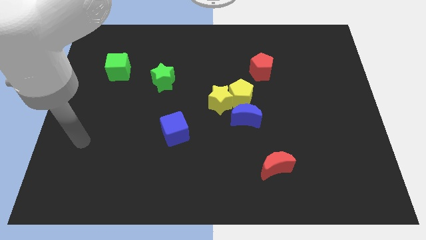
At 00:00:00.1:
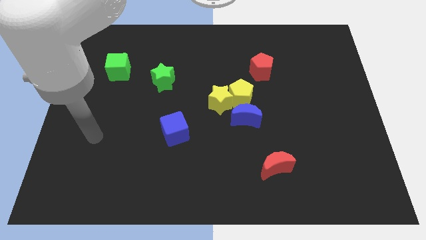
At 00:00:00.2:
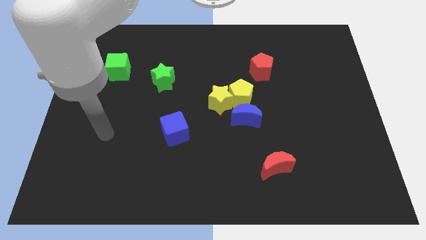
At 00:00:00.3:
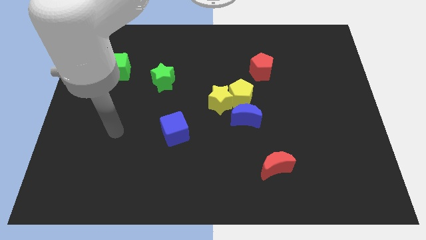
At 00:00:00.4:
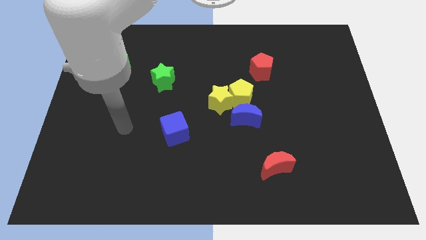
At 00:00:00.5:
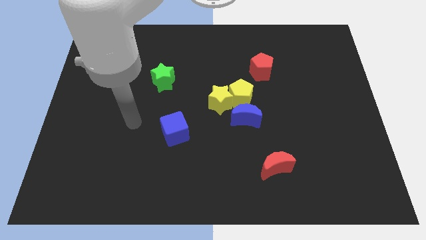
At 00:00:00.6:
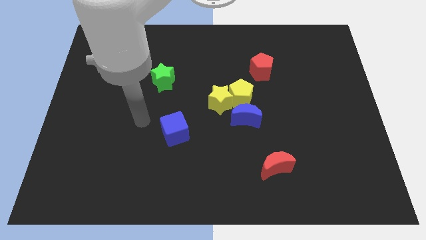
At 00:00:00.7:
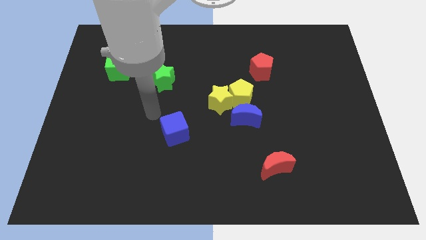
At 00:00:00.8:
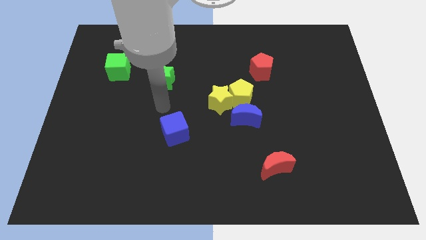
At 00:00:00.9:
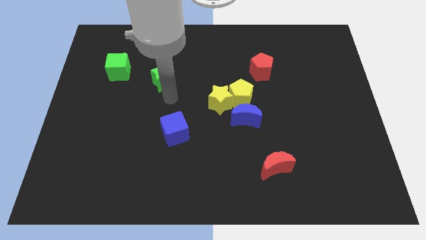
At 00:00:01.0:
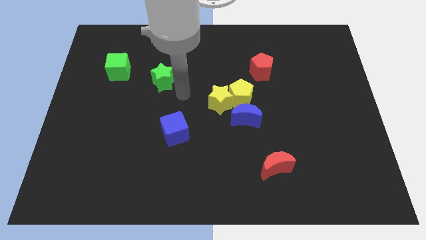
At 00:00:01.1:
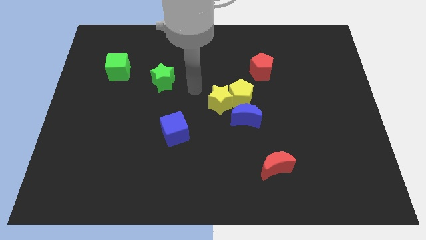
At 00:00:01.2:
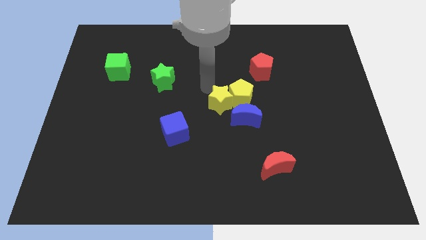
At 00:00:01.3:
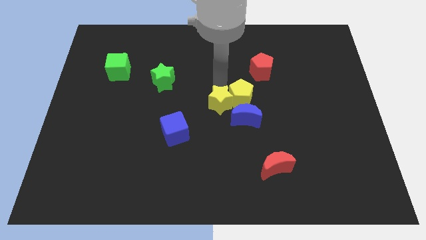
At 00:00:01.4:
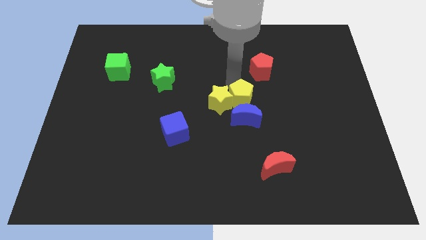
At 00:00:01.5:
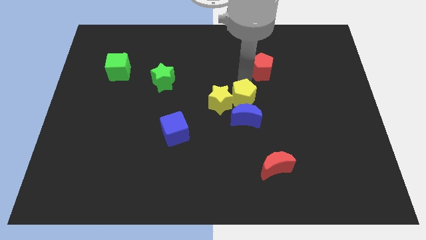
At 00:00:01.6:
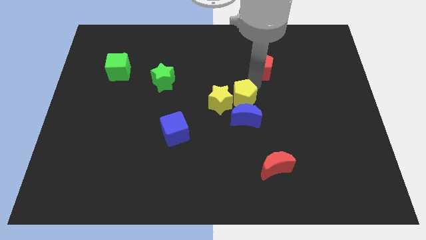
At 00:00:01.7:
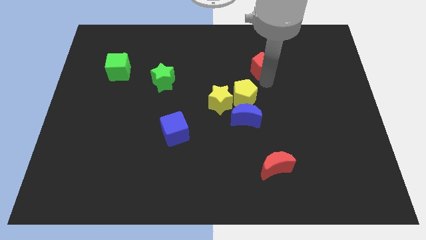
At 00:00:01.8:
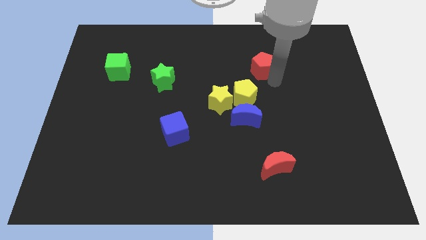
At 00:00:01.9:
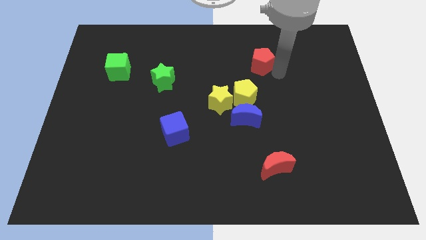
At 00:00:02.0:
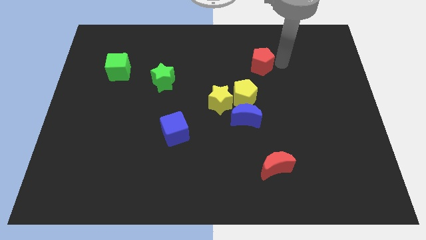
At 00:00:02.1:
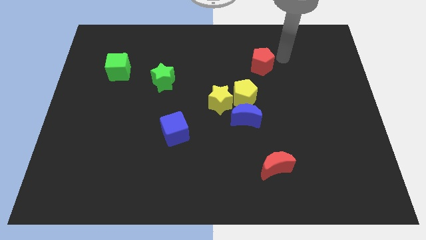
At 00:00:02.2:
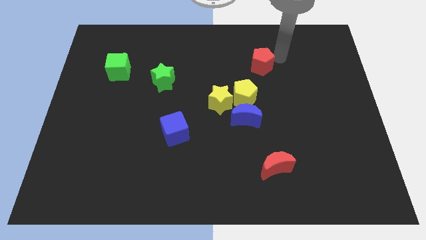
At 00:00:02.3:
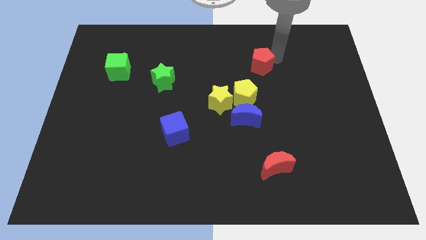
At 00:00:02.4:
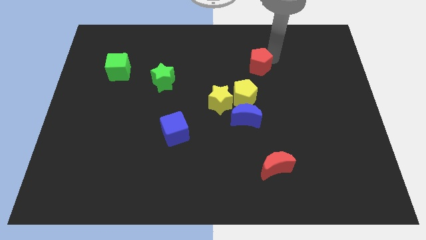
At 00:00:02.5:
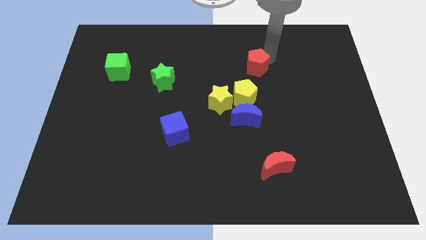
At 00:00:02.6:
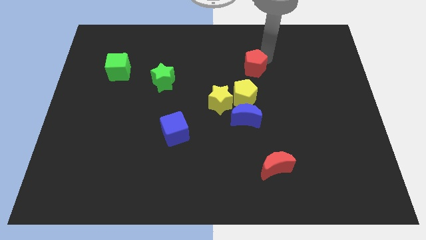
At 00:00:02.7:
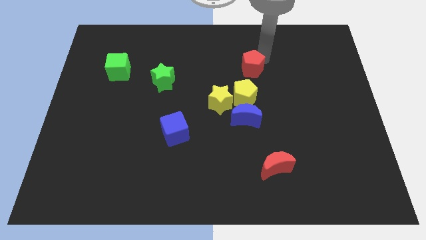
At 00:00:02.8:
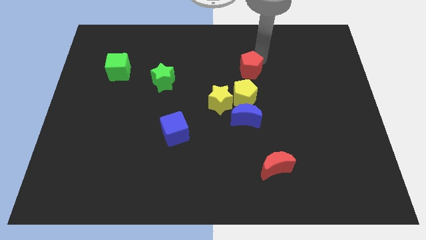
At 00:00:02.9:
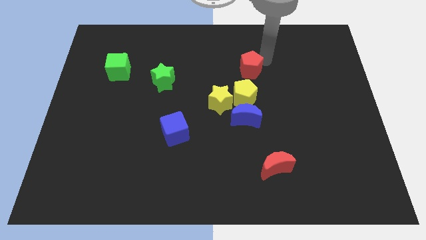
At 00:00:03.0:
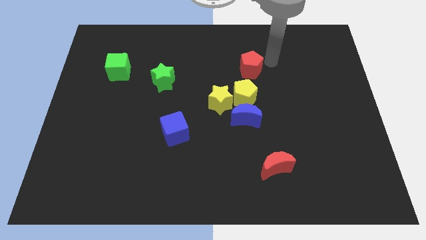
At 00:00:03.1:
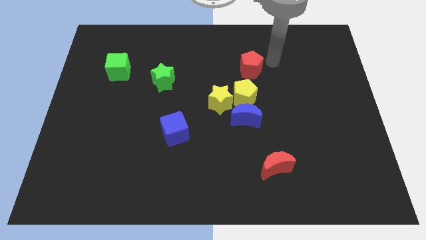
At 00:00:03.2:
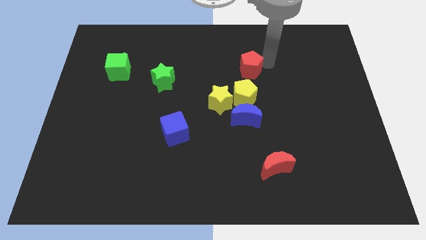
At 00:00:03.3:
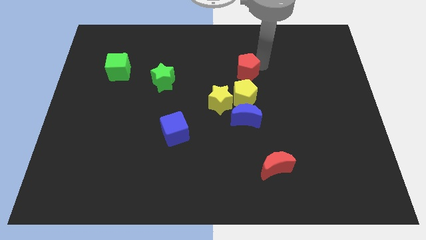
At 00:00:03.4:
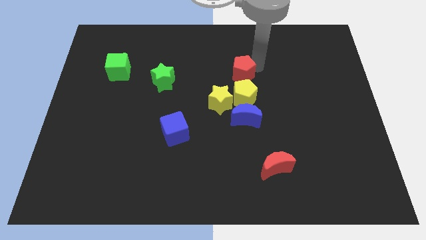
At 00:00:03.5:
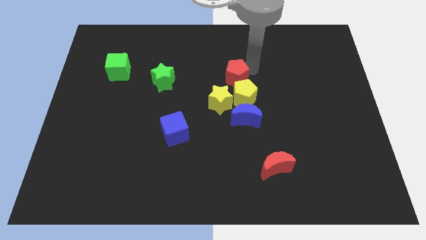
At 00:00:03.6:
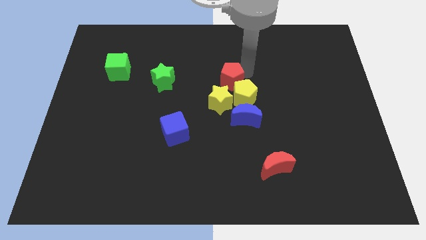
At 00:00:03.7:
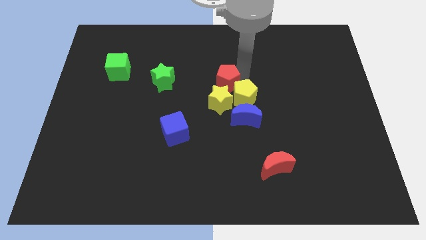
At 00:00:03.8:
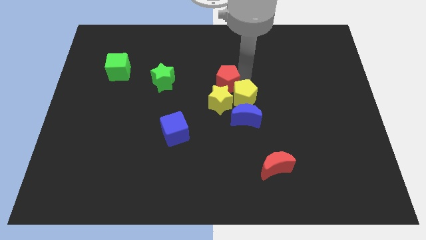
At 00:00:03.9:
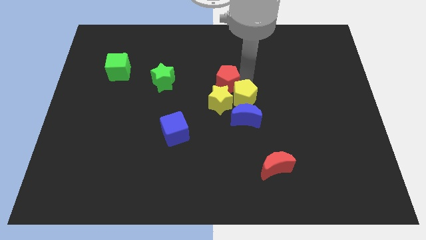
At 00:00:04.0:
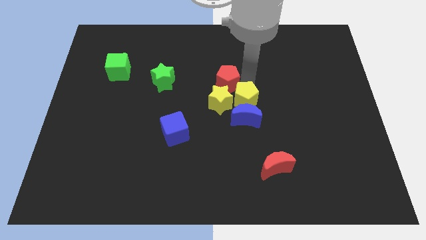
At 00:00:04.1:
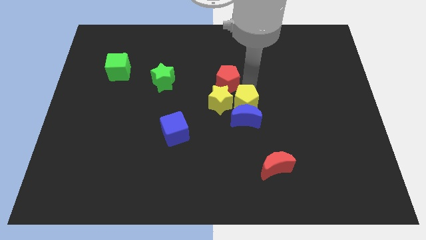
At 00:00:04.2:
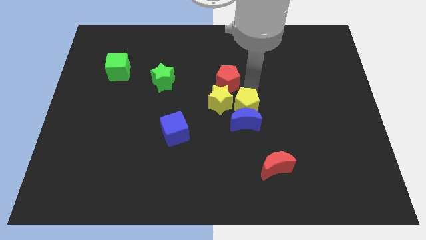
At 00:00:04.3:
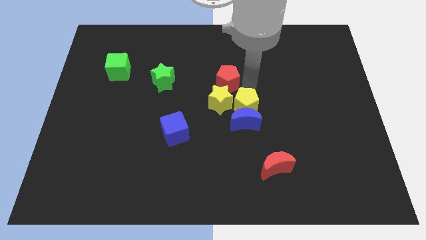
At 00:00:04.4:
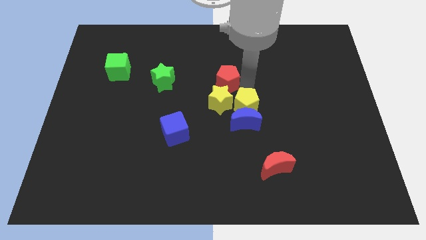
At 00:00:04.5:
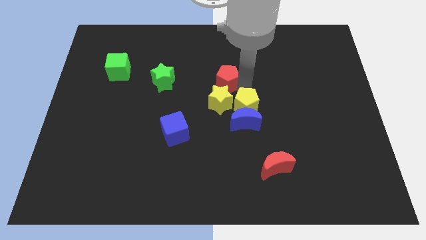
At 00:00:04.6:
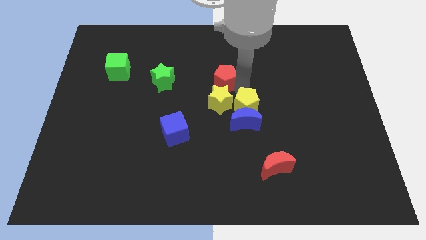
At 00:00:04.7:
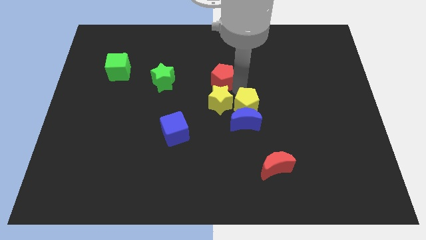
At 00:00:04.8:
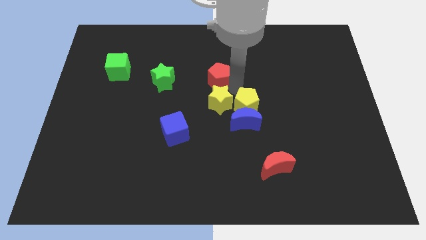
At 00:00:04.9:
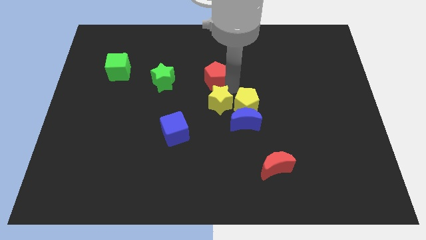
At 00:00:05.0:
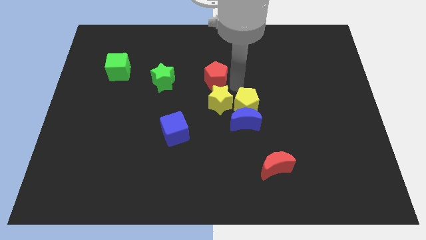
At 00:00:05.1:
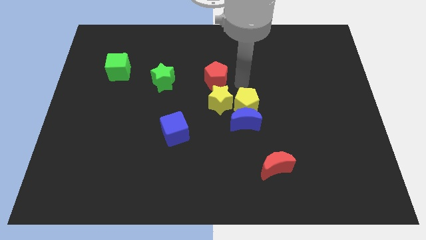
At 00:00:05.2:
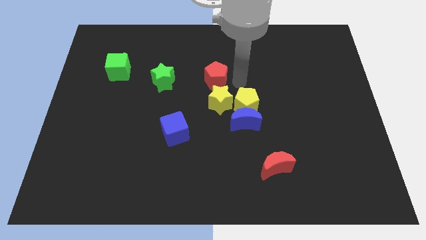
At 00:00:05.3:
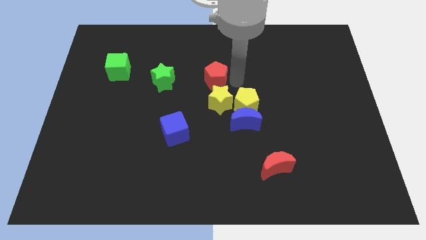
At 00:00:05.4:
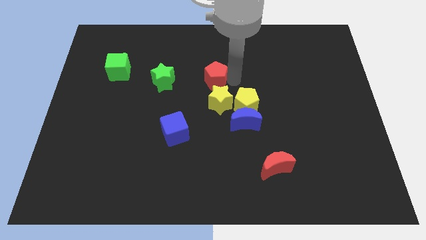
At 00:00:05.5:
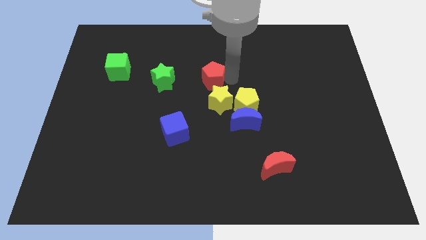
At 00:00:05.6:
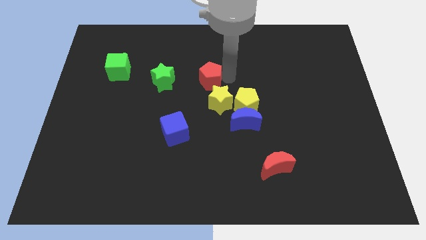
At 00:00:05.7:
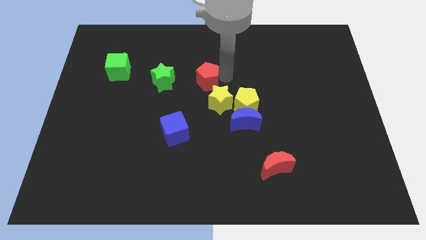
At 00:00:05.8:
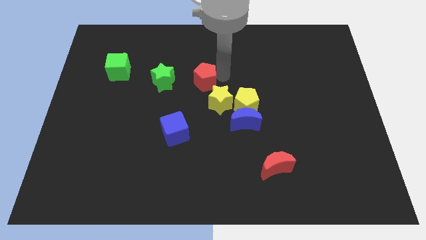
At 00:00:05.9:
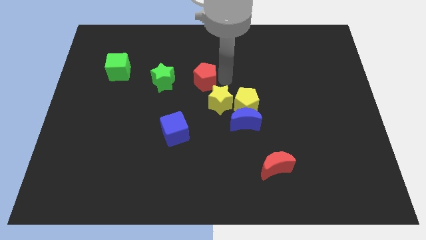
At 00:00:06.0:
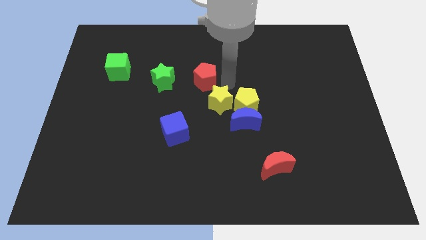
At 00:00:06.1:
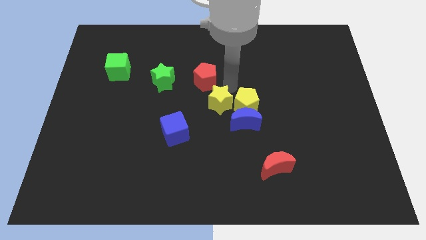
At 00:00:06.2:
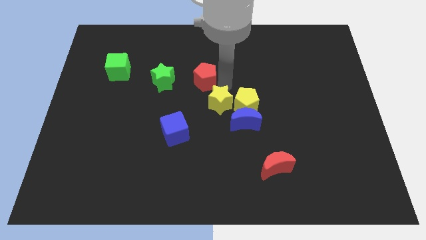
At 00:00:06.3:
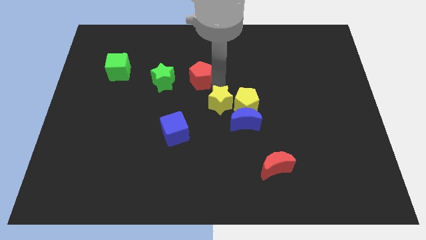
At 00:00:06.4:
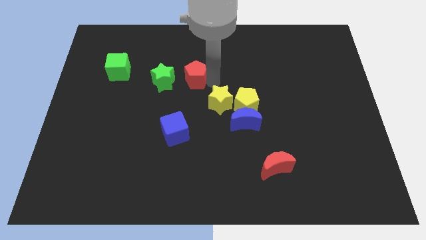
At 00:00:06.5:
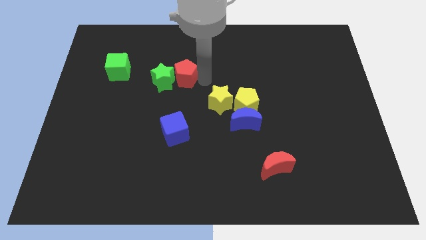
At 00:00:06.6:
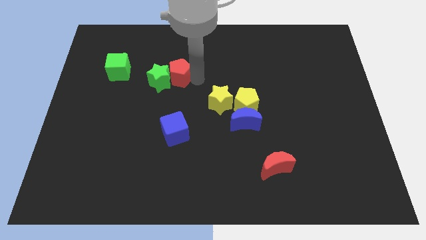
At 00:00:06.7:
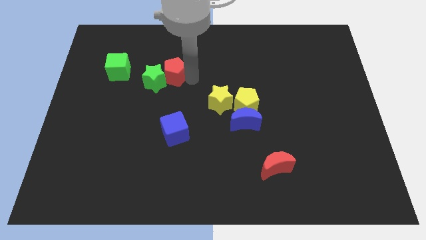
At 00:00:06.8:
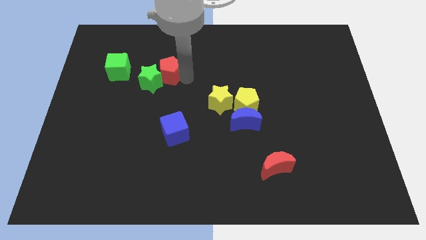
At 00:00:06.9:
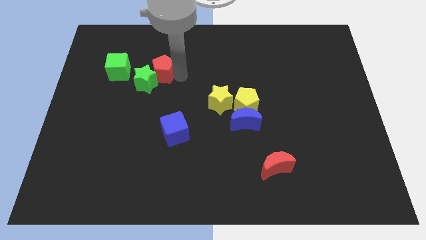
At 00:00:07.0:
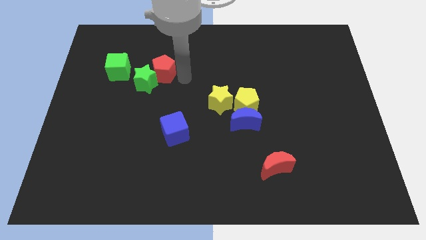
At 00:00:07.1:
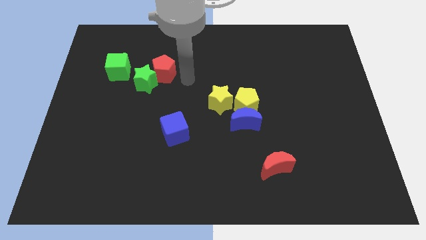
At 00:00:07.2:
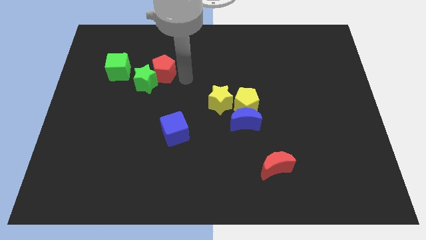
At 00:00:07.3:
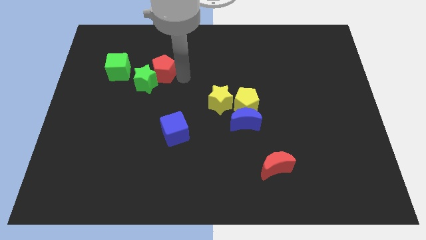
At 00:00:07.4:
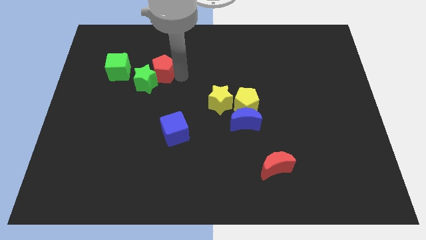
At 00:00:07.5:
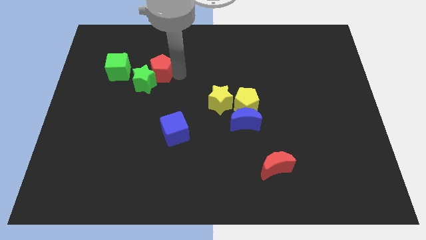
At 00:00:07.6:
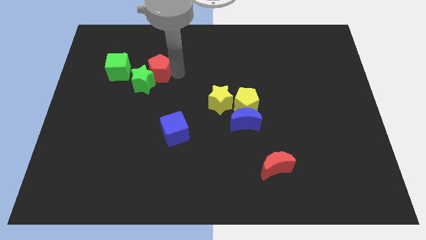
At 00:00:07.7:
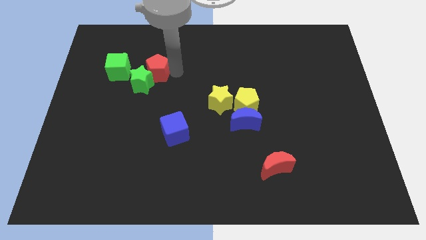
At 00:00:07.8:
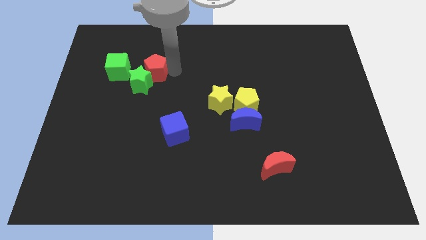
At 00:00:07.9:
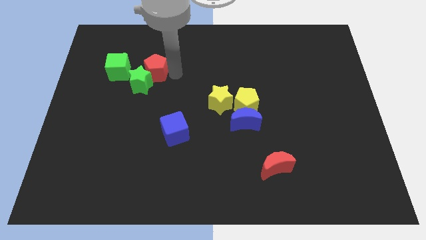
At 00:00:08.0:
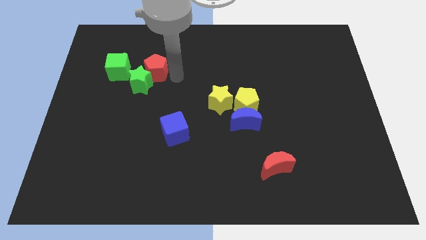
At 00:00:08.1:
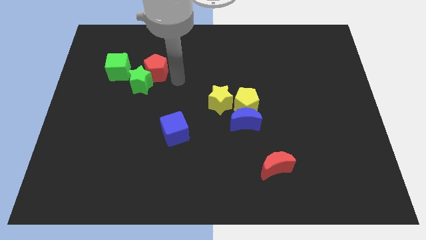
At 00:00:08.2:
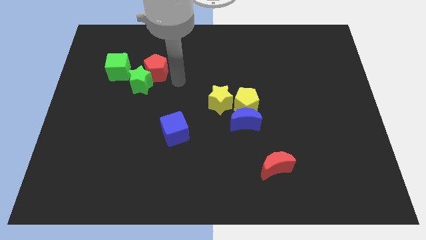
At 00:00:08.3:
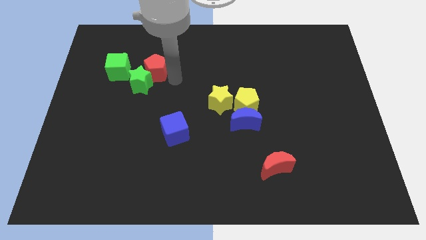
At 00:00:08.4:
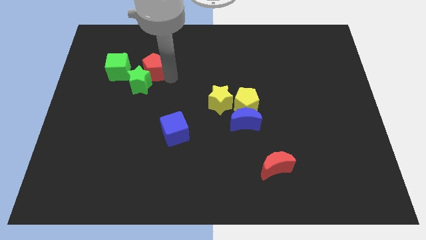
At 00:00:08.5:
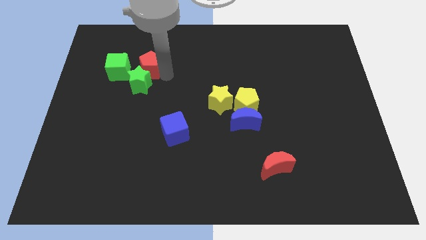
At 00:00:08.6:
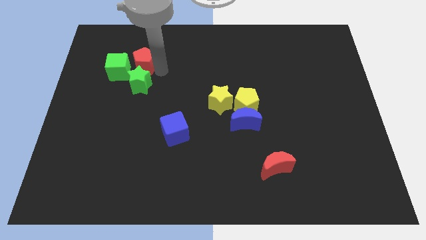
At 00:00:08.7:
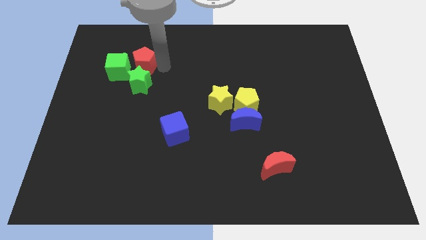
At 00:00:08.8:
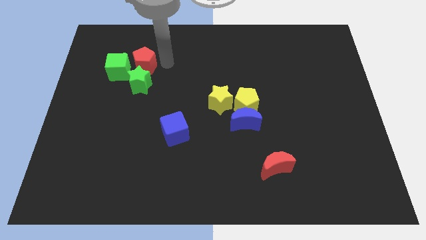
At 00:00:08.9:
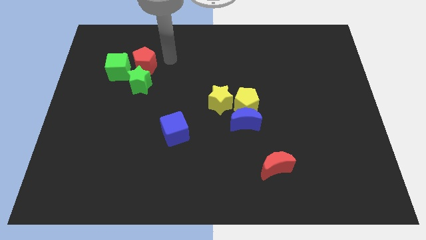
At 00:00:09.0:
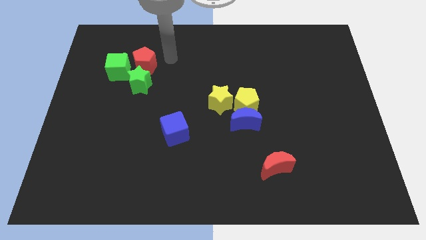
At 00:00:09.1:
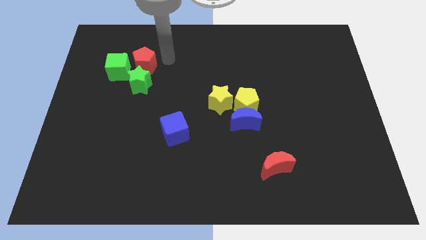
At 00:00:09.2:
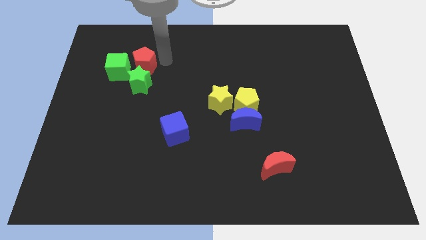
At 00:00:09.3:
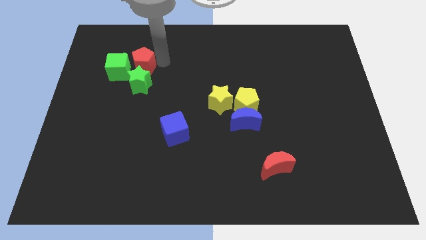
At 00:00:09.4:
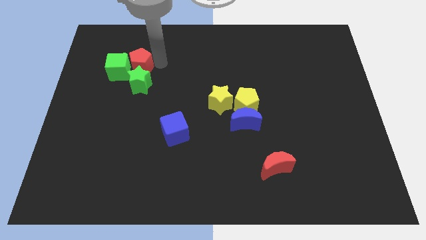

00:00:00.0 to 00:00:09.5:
push the red pentagon next to the green cube
